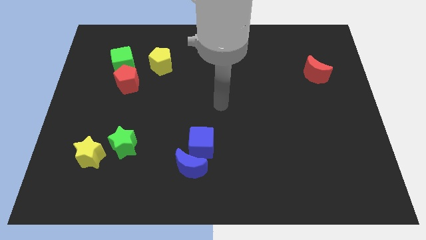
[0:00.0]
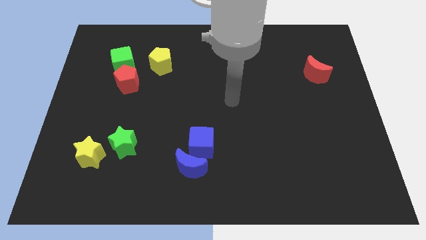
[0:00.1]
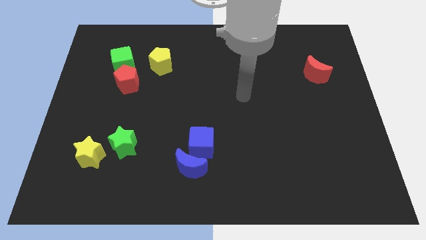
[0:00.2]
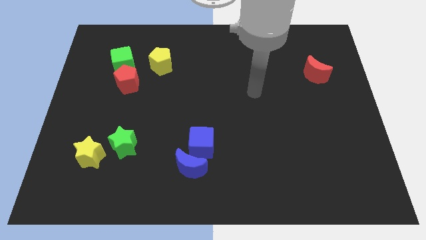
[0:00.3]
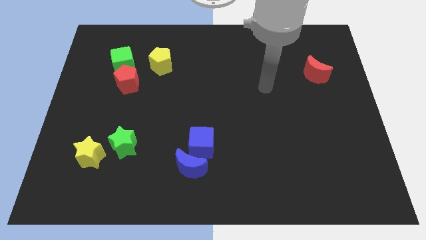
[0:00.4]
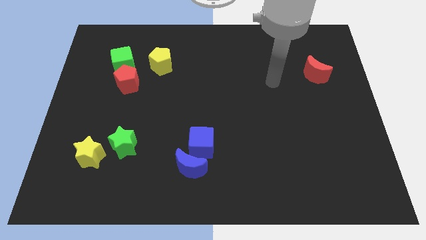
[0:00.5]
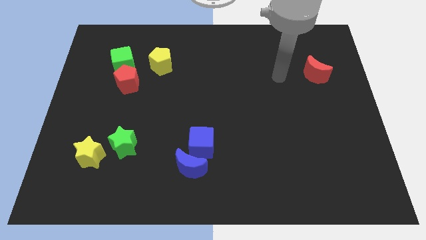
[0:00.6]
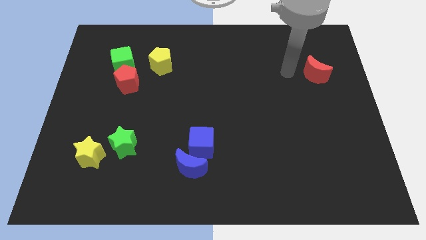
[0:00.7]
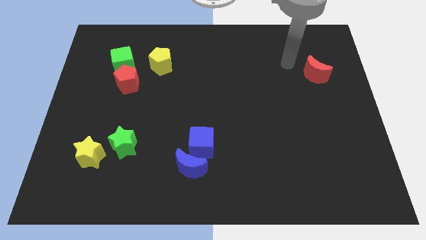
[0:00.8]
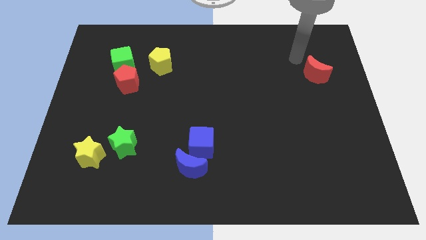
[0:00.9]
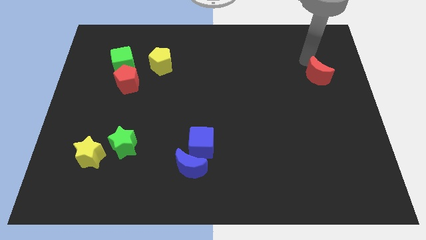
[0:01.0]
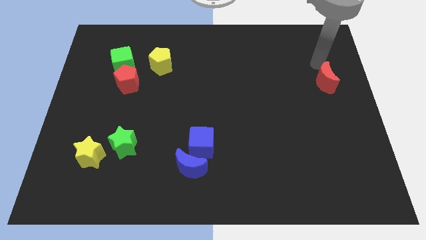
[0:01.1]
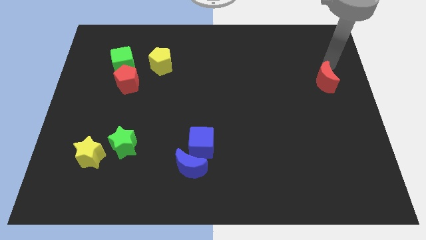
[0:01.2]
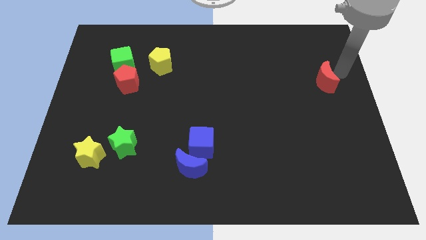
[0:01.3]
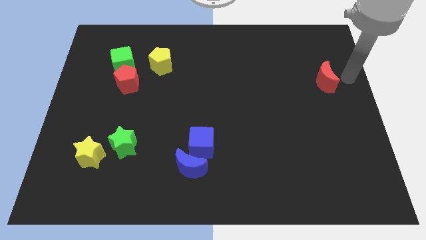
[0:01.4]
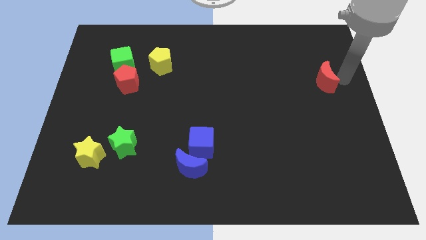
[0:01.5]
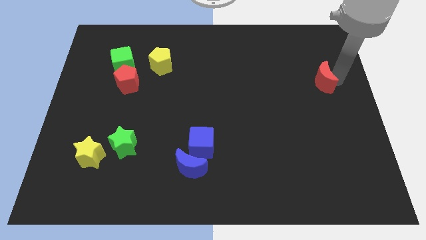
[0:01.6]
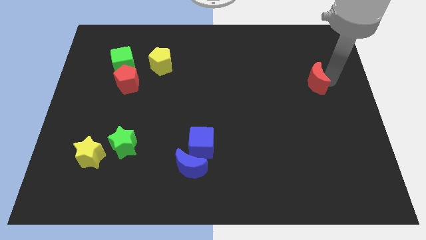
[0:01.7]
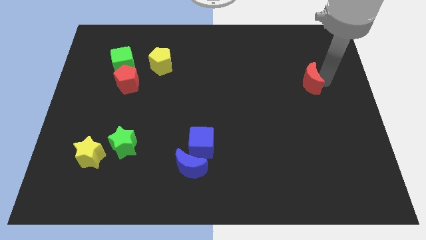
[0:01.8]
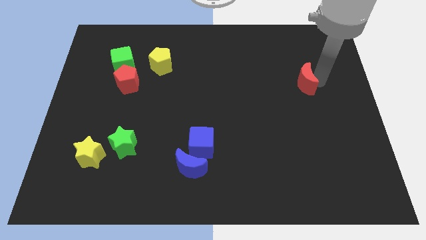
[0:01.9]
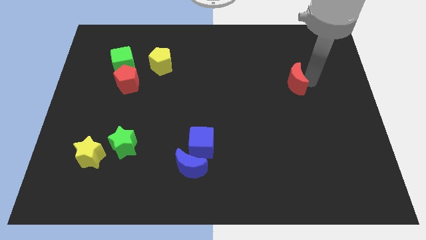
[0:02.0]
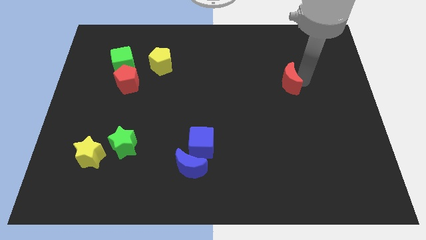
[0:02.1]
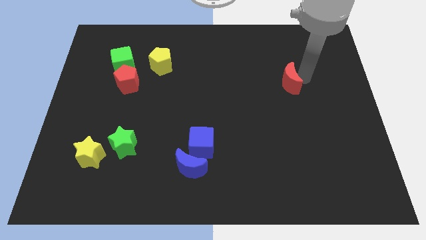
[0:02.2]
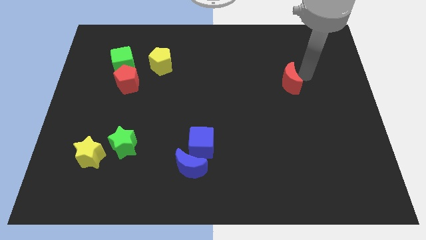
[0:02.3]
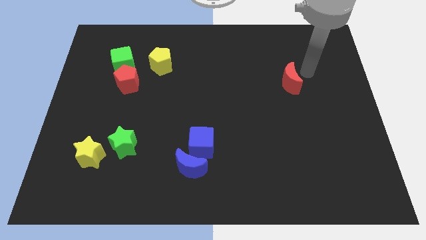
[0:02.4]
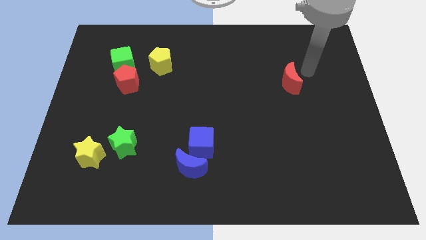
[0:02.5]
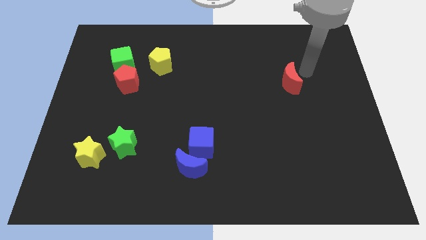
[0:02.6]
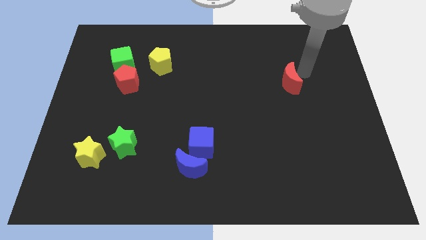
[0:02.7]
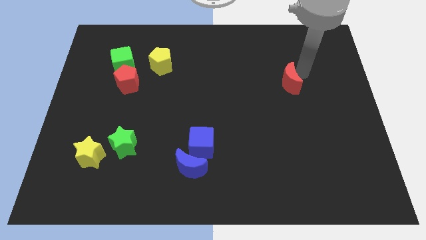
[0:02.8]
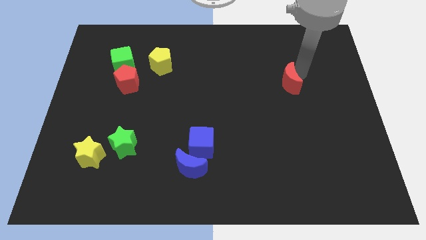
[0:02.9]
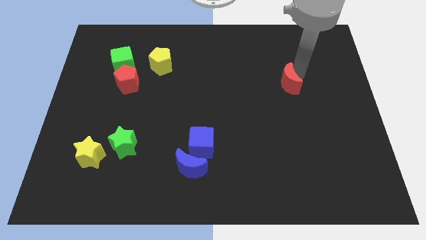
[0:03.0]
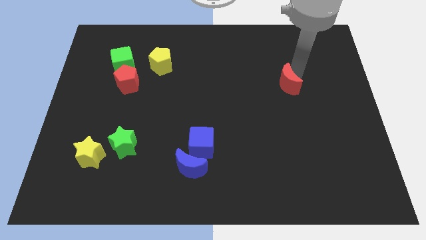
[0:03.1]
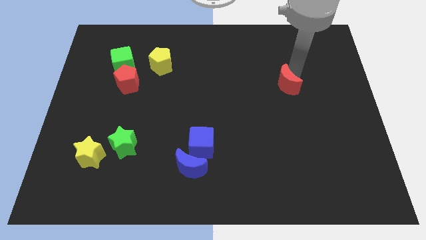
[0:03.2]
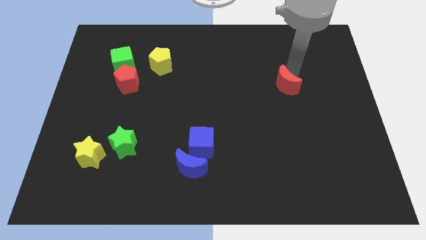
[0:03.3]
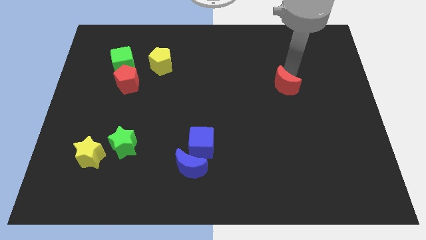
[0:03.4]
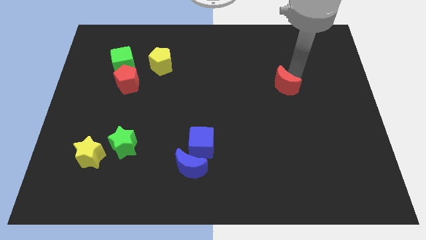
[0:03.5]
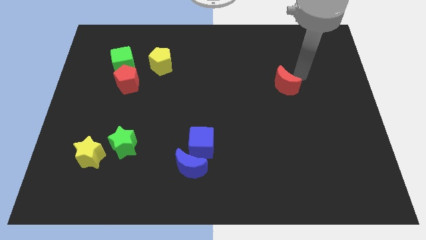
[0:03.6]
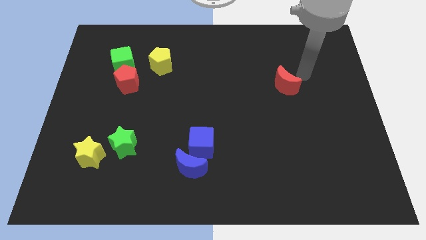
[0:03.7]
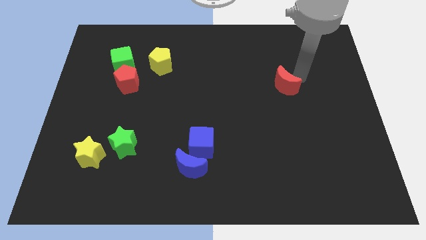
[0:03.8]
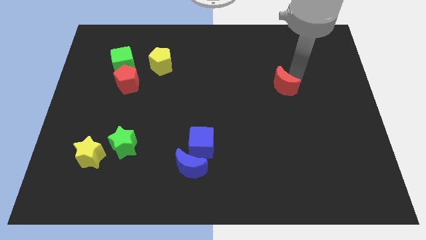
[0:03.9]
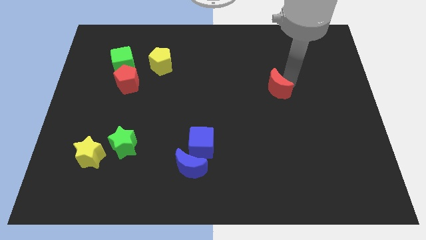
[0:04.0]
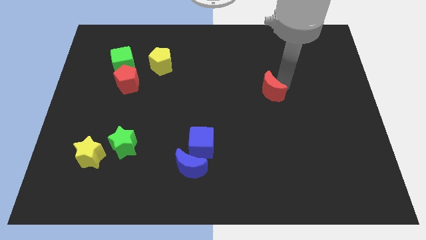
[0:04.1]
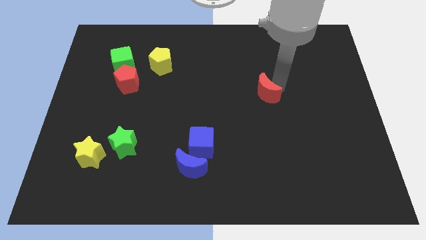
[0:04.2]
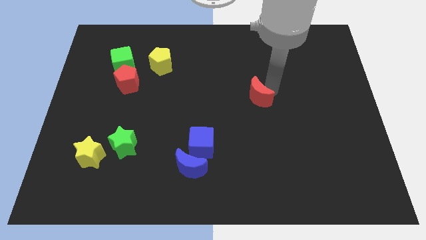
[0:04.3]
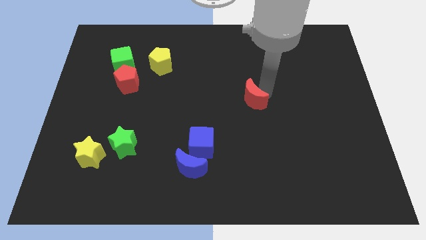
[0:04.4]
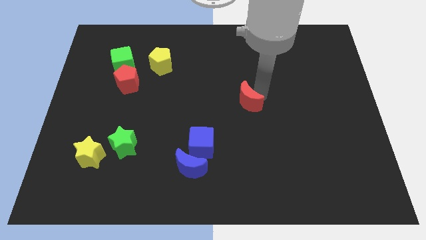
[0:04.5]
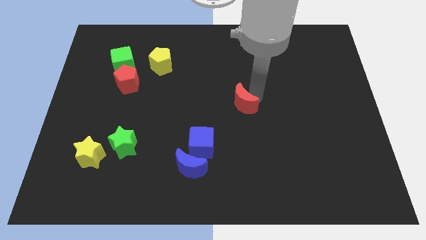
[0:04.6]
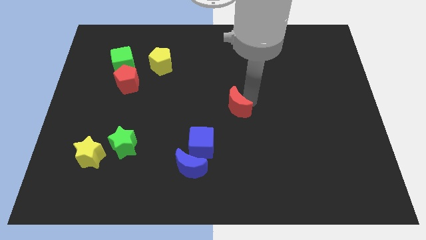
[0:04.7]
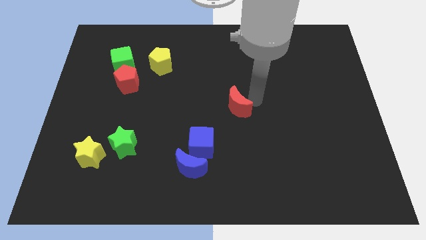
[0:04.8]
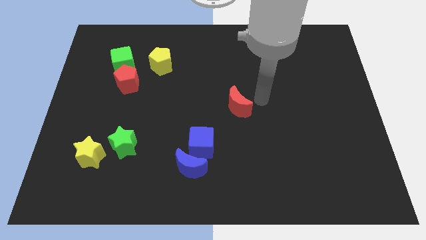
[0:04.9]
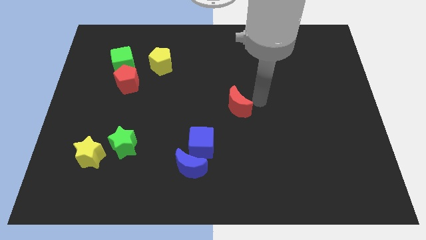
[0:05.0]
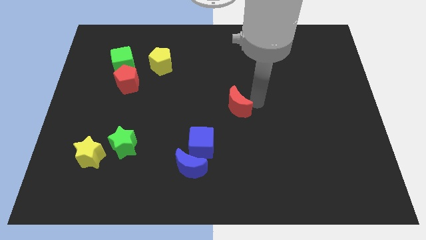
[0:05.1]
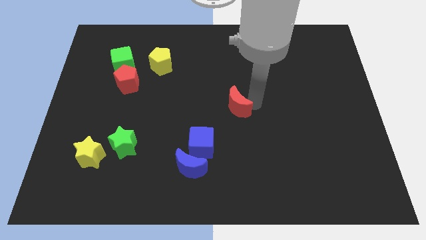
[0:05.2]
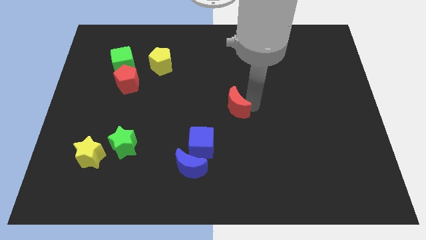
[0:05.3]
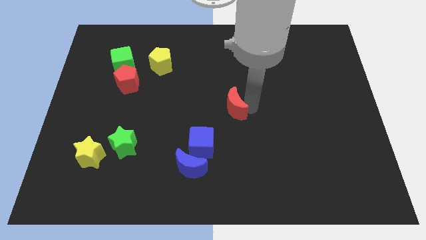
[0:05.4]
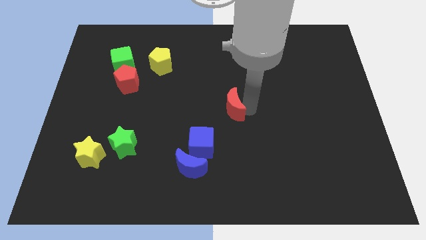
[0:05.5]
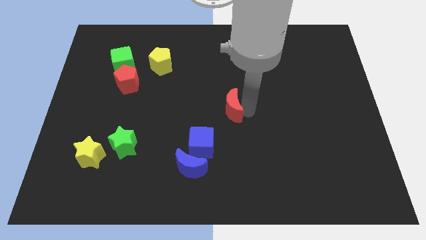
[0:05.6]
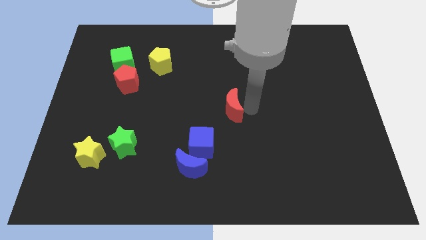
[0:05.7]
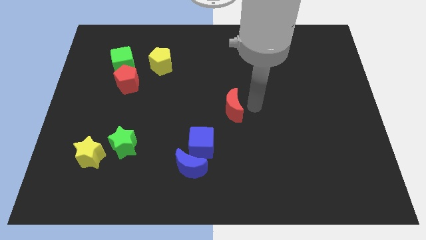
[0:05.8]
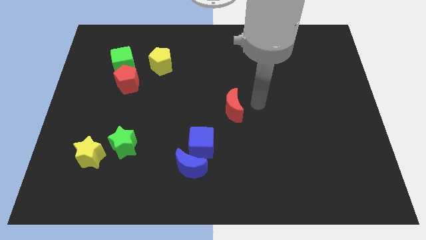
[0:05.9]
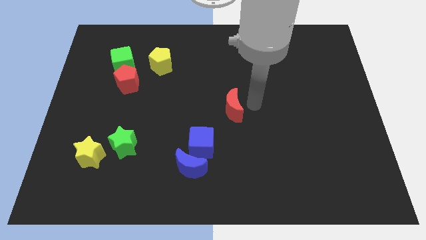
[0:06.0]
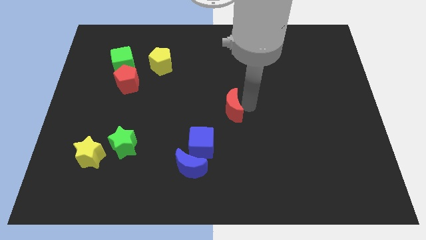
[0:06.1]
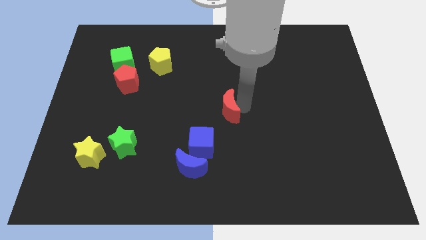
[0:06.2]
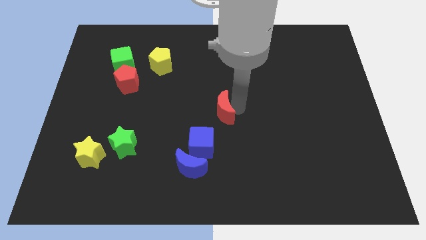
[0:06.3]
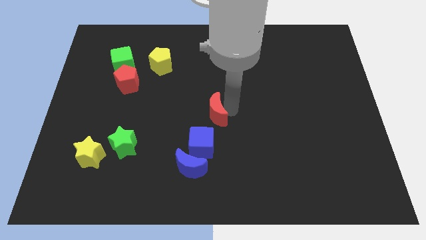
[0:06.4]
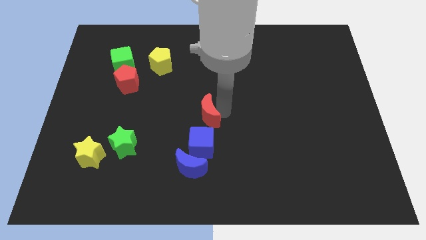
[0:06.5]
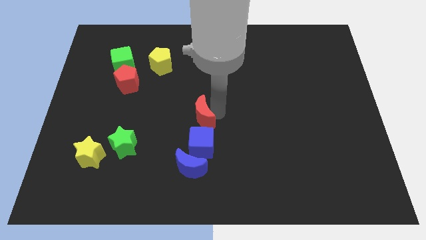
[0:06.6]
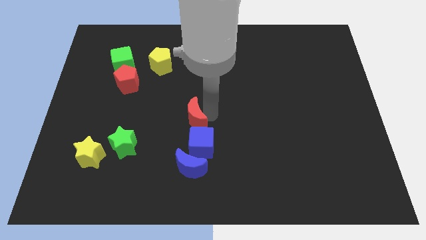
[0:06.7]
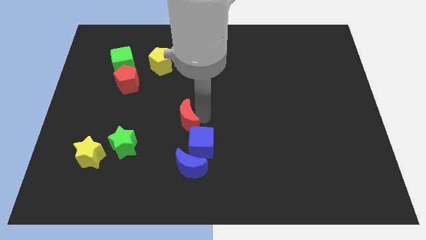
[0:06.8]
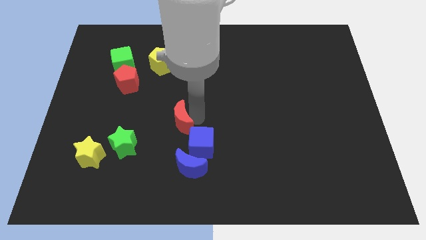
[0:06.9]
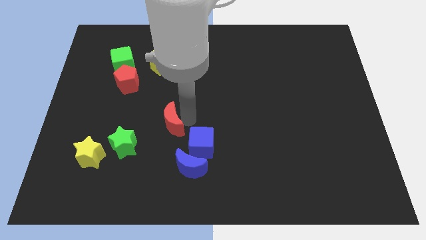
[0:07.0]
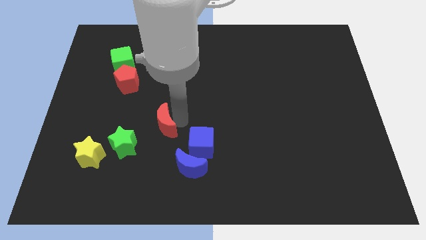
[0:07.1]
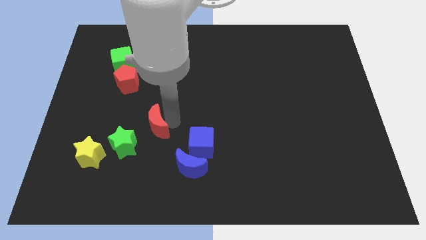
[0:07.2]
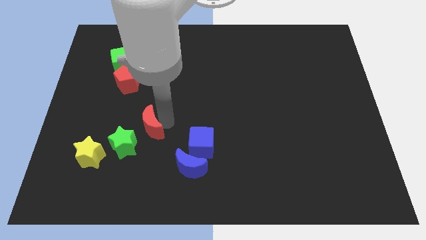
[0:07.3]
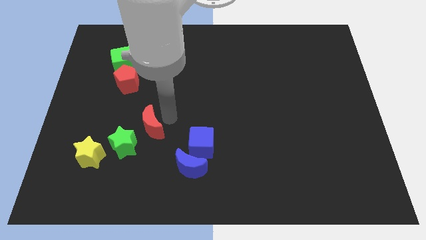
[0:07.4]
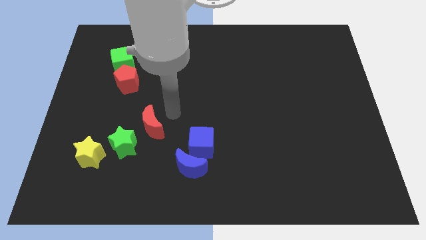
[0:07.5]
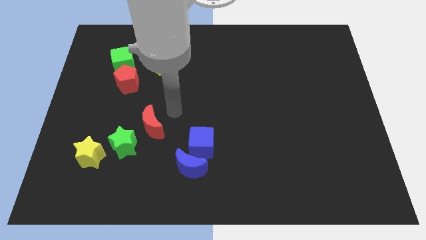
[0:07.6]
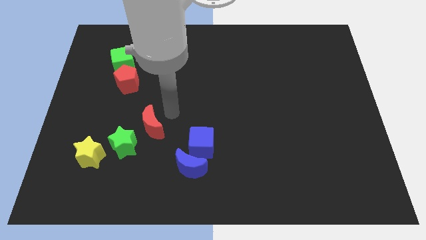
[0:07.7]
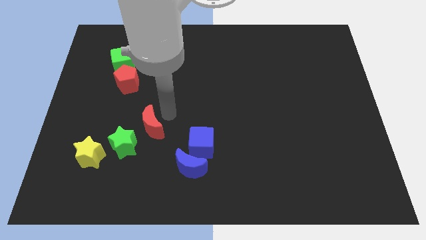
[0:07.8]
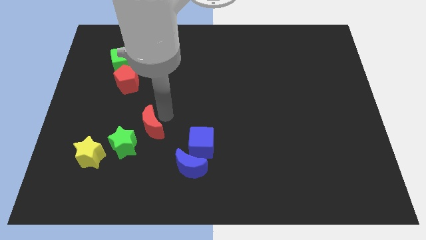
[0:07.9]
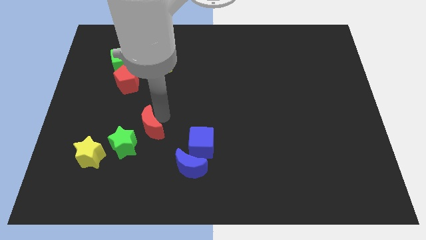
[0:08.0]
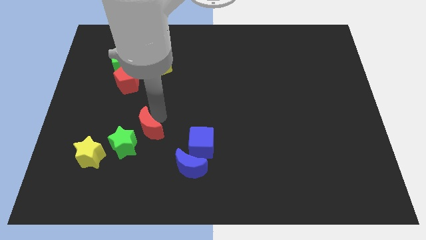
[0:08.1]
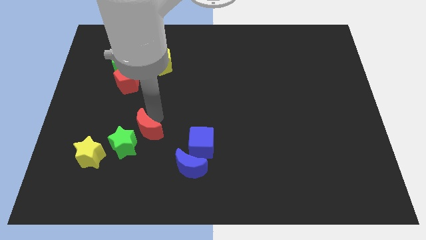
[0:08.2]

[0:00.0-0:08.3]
slide the red moon next to the green star
